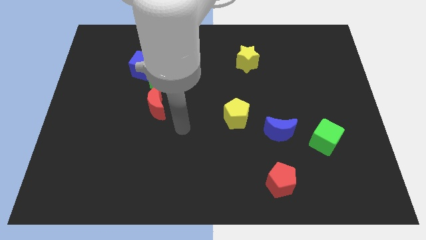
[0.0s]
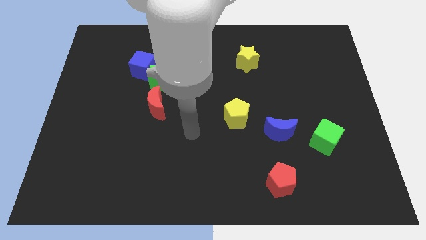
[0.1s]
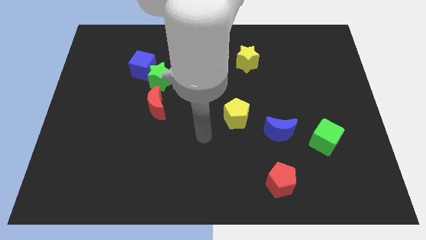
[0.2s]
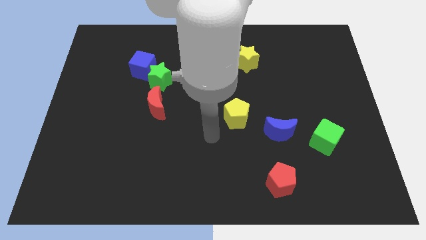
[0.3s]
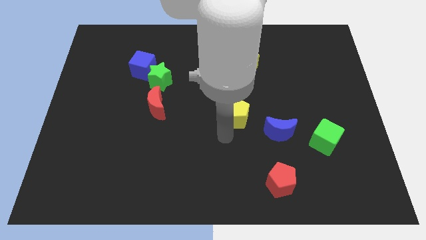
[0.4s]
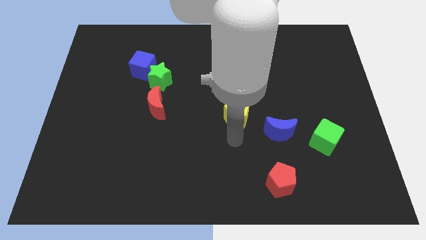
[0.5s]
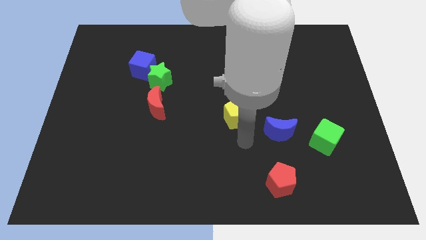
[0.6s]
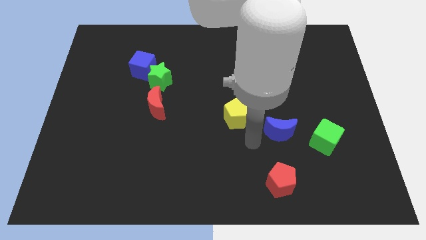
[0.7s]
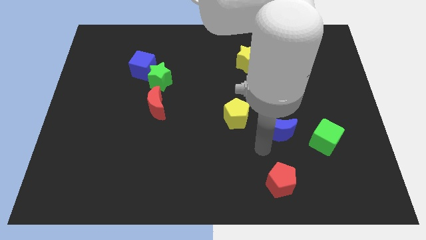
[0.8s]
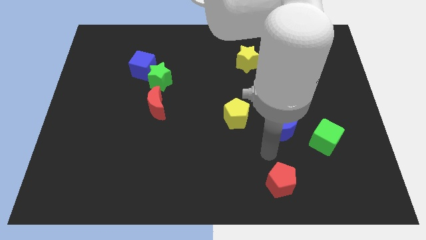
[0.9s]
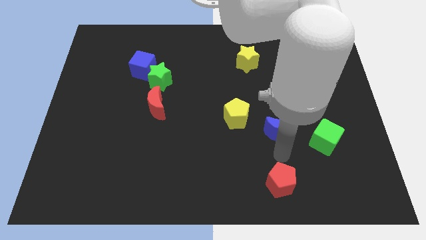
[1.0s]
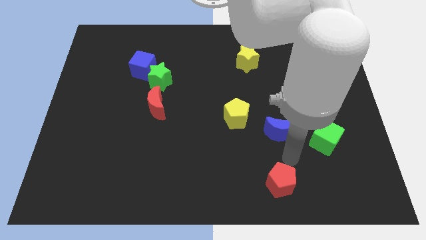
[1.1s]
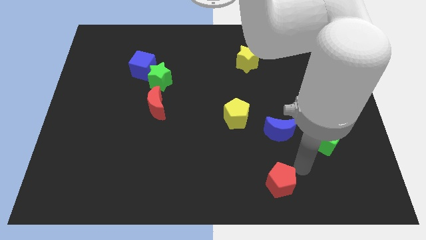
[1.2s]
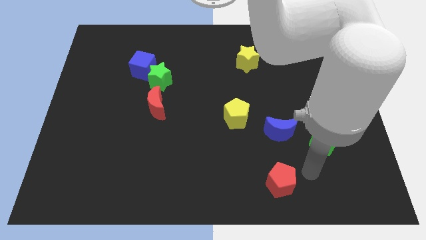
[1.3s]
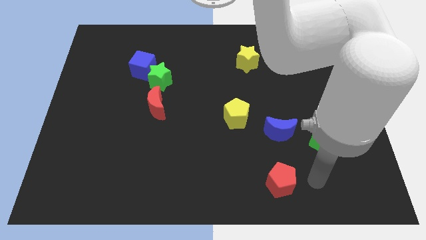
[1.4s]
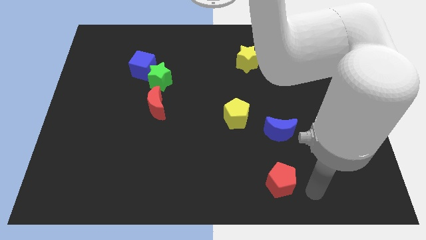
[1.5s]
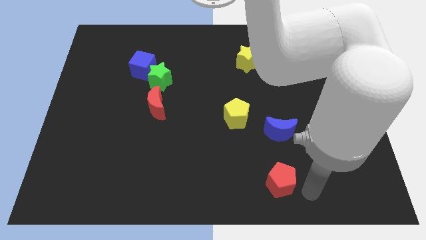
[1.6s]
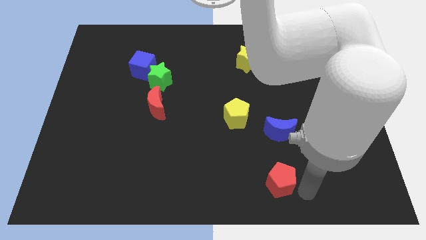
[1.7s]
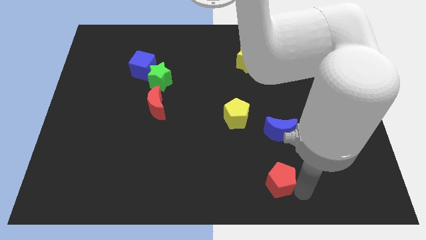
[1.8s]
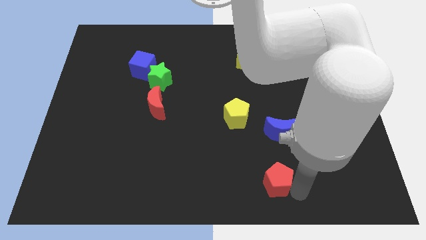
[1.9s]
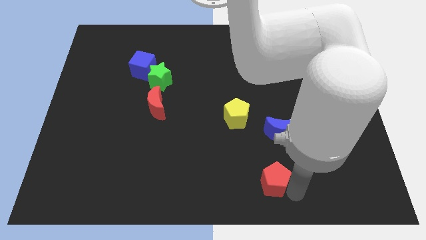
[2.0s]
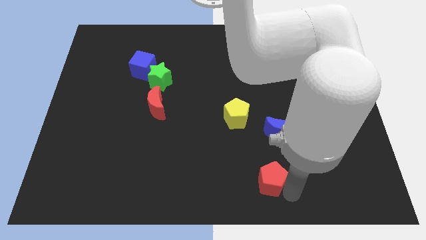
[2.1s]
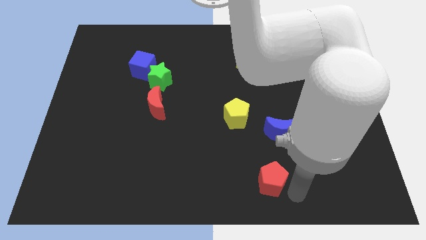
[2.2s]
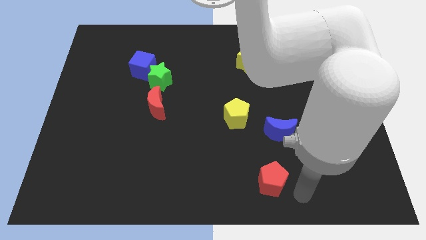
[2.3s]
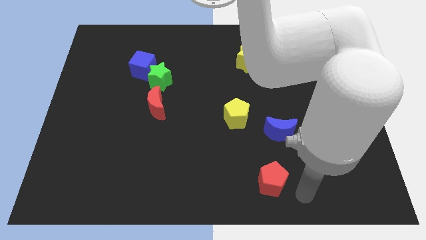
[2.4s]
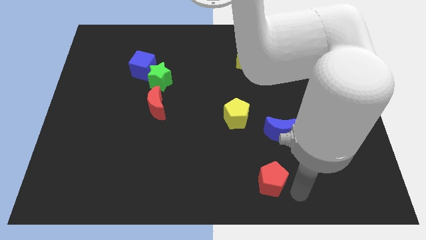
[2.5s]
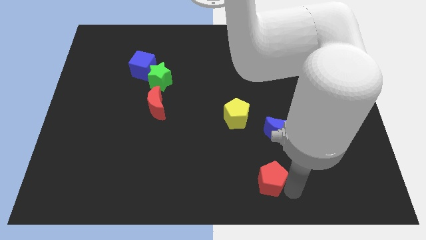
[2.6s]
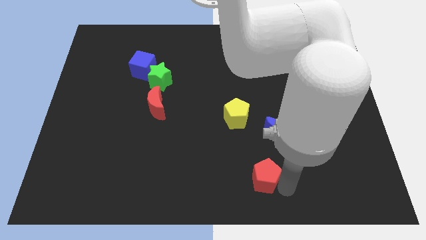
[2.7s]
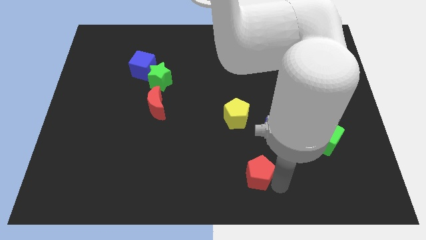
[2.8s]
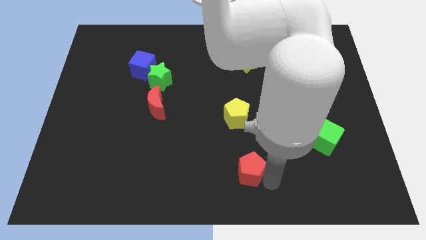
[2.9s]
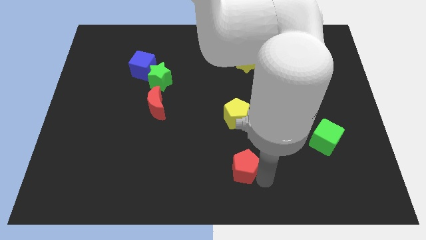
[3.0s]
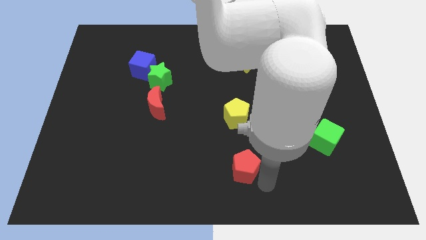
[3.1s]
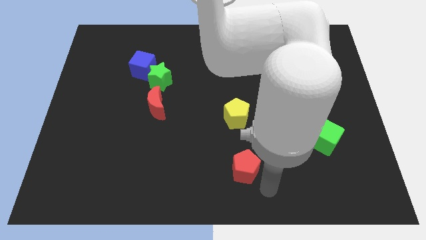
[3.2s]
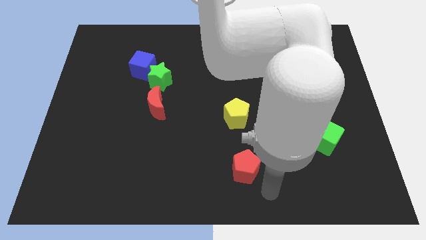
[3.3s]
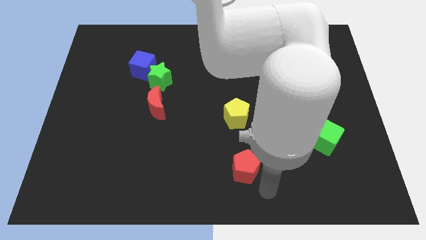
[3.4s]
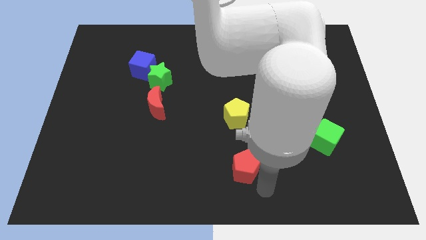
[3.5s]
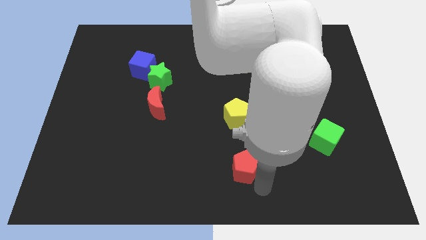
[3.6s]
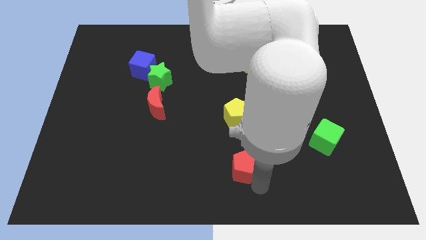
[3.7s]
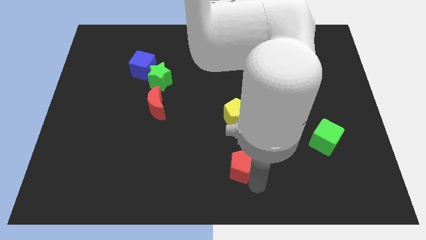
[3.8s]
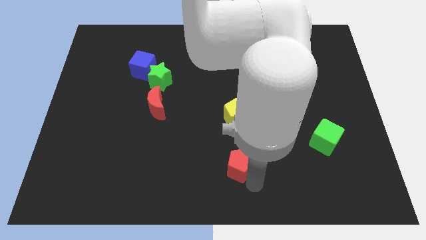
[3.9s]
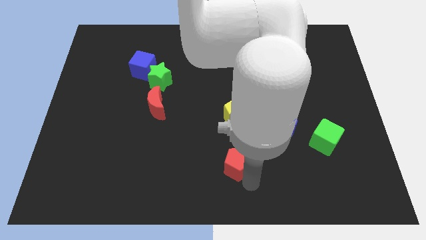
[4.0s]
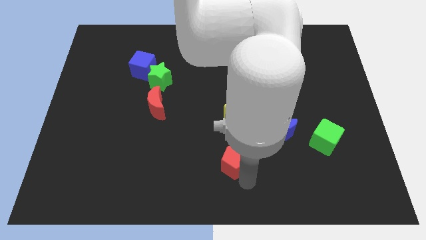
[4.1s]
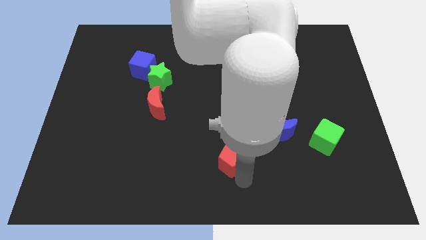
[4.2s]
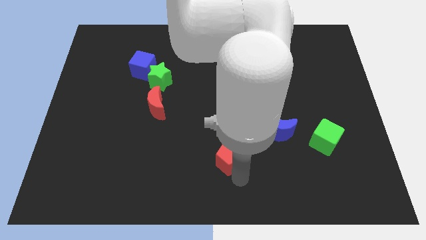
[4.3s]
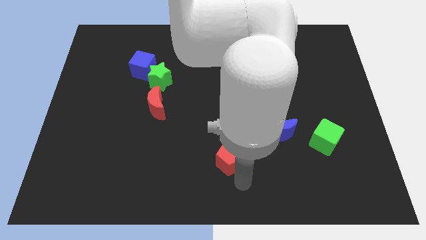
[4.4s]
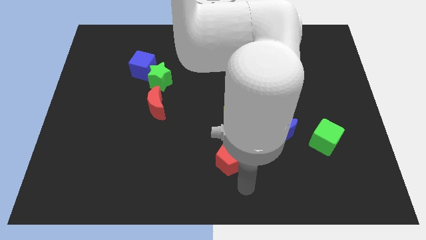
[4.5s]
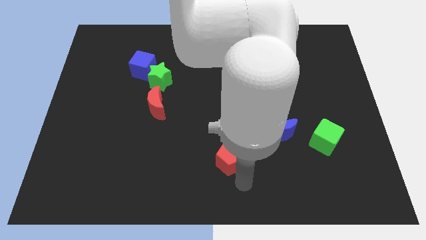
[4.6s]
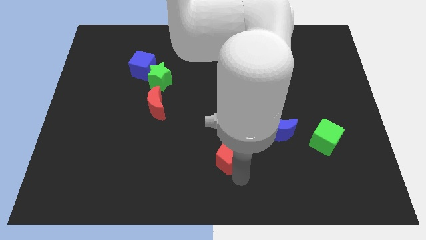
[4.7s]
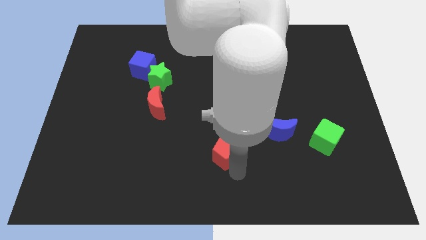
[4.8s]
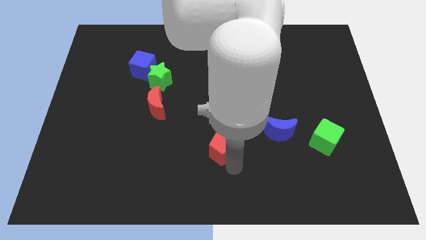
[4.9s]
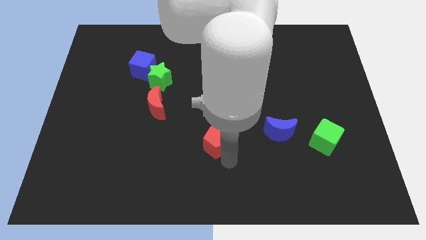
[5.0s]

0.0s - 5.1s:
slide the red pentagon to the center of the board

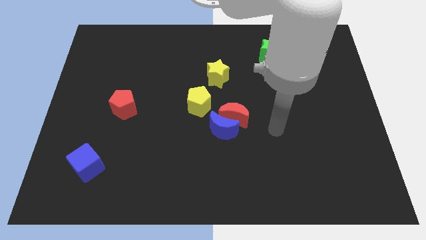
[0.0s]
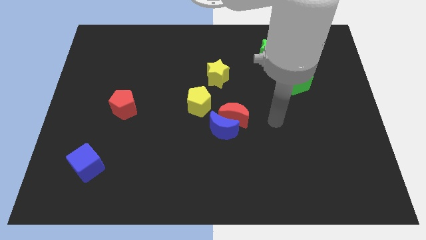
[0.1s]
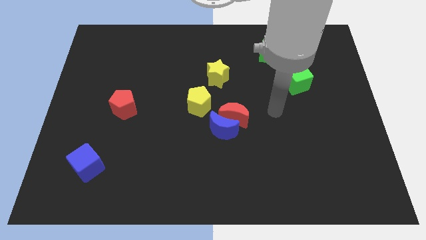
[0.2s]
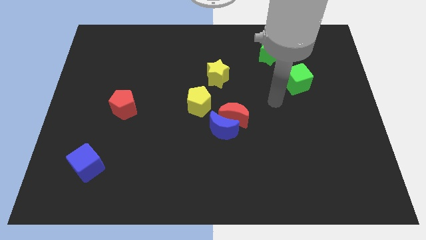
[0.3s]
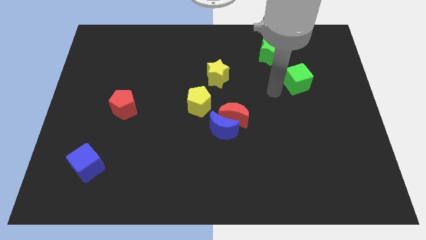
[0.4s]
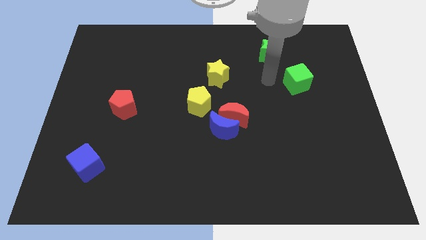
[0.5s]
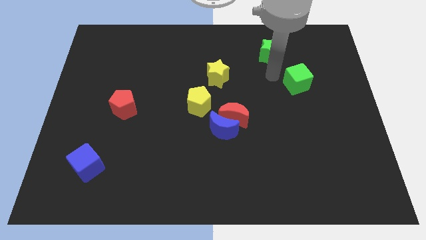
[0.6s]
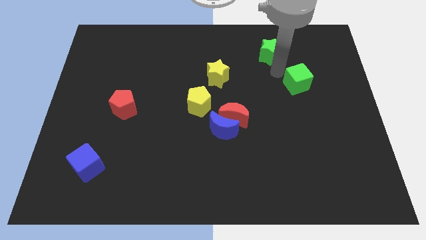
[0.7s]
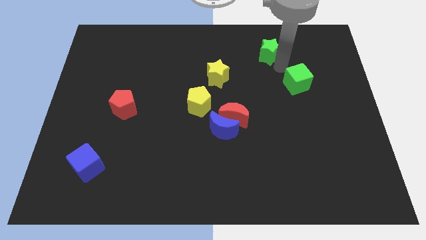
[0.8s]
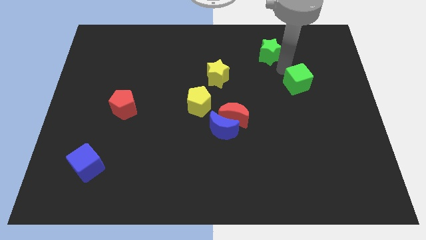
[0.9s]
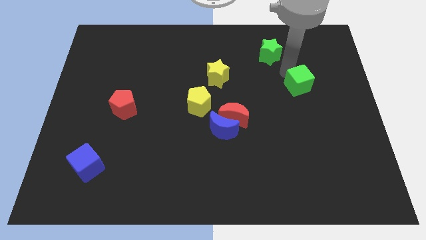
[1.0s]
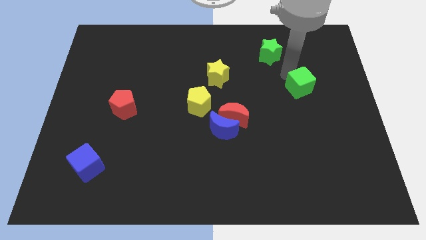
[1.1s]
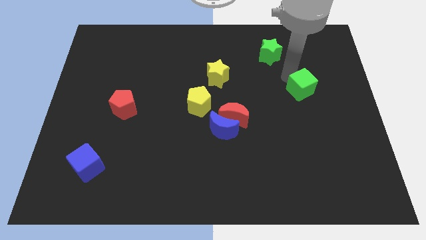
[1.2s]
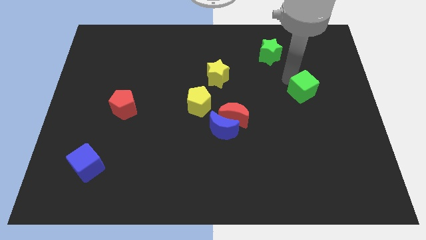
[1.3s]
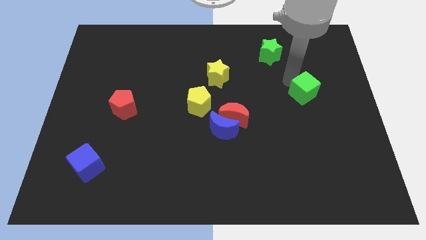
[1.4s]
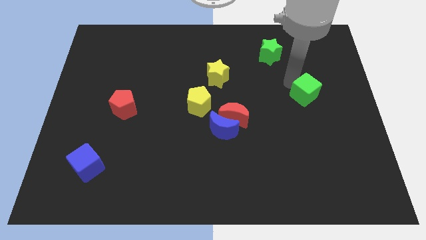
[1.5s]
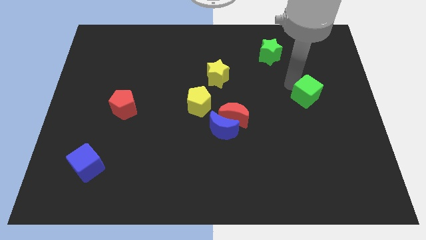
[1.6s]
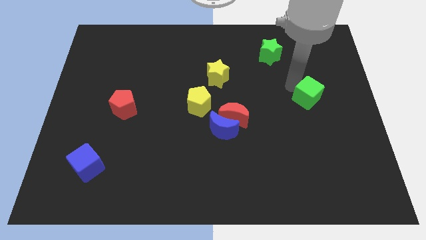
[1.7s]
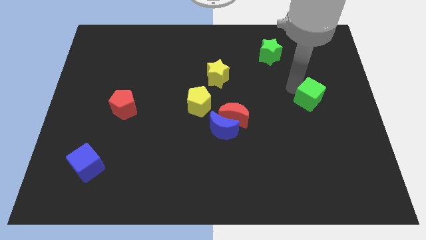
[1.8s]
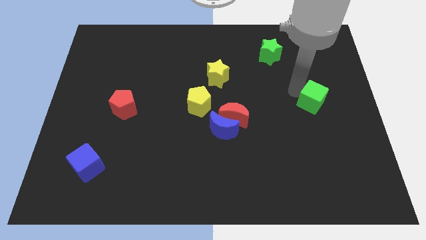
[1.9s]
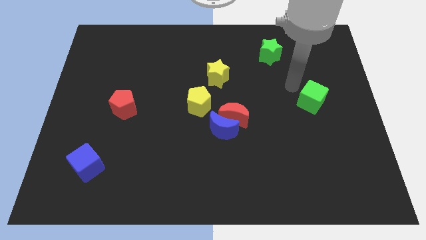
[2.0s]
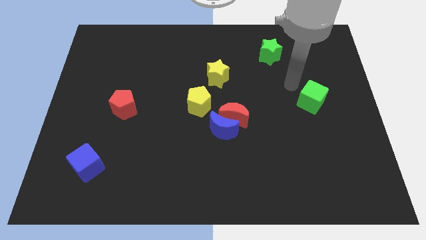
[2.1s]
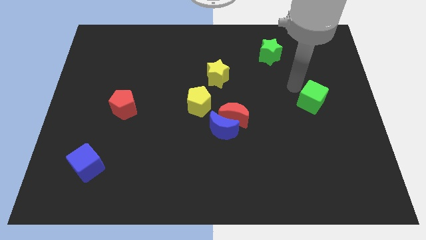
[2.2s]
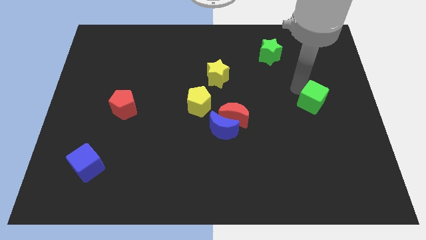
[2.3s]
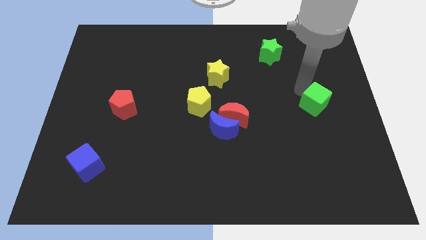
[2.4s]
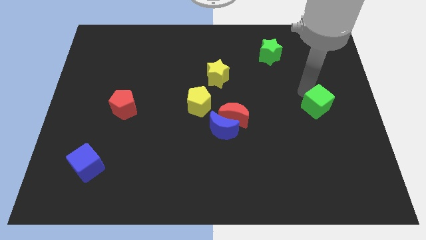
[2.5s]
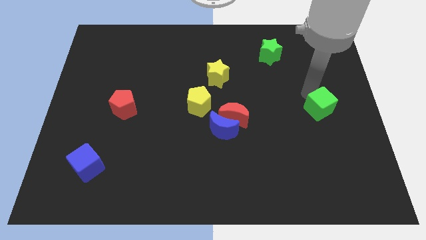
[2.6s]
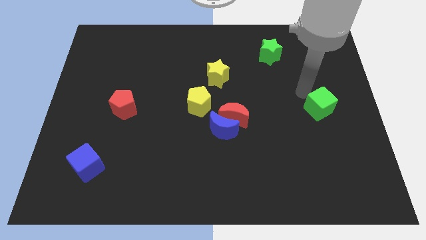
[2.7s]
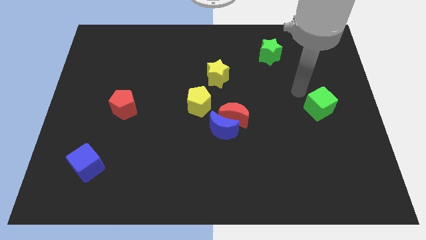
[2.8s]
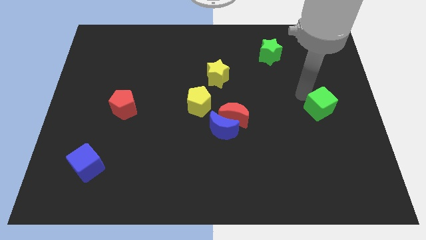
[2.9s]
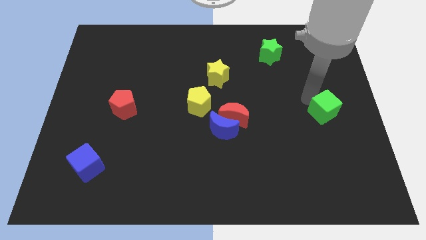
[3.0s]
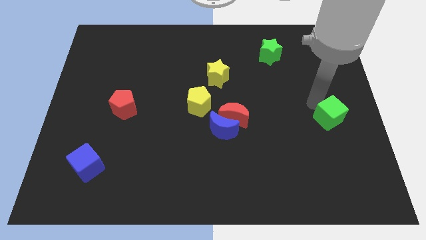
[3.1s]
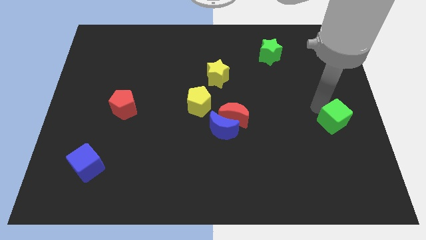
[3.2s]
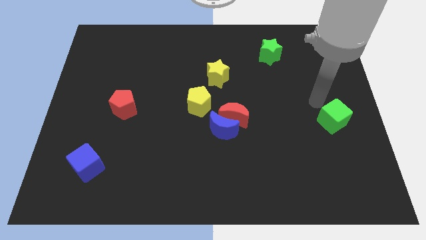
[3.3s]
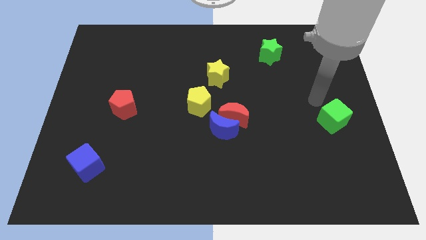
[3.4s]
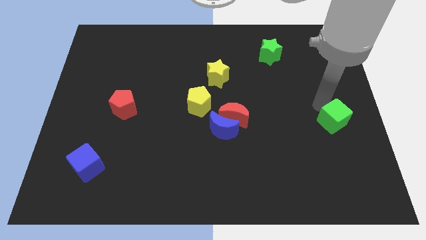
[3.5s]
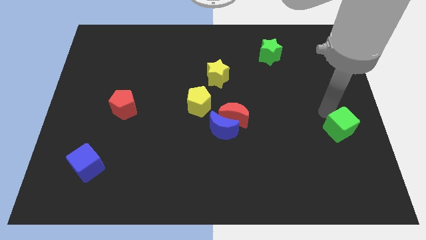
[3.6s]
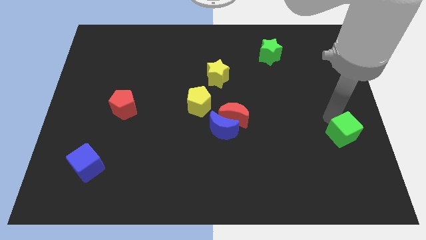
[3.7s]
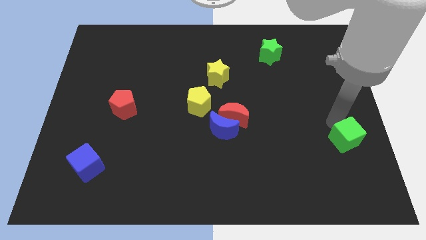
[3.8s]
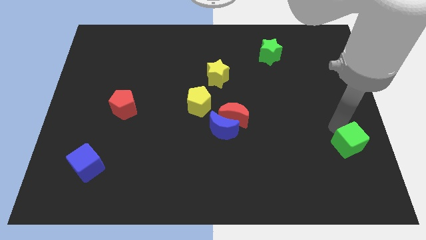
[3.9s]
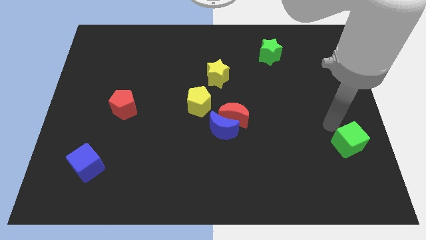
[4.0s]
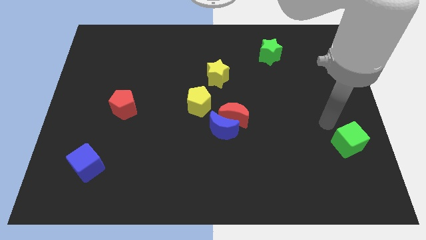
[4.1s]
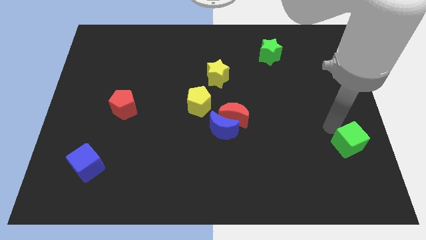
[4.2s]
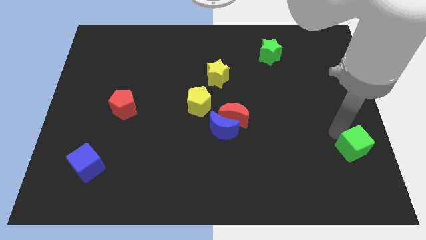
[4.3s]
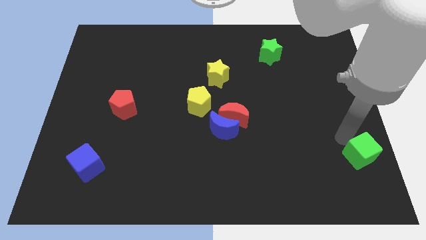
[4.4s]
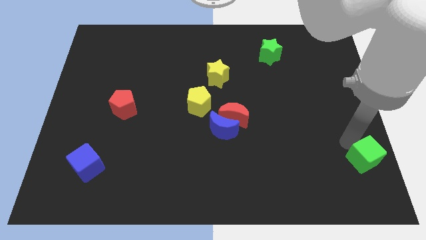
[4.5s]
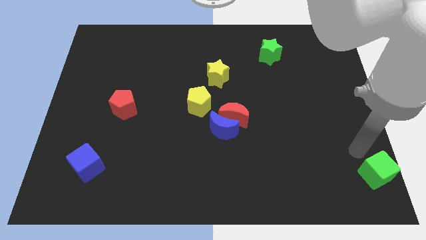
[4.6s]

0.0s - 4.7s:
push the green cube to the lower right corner
